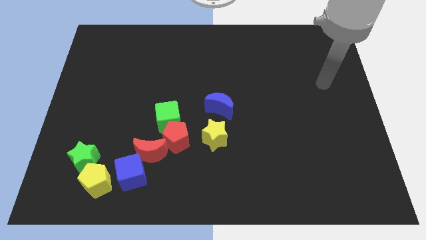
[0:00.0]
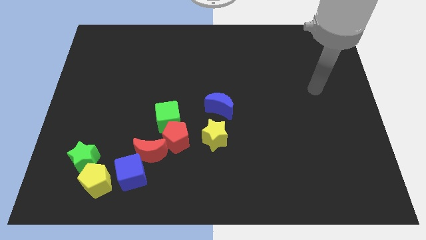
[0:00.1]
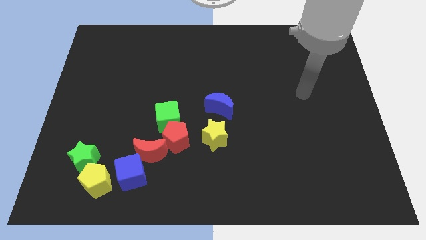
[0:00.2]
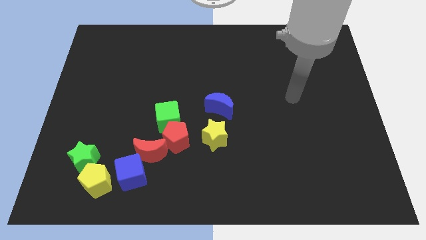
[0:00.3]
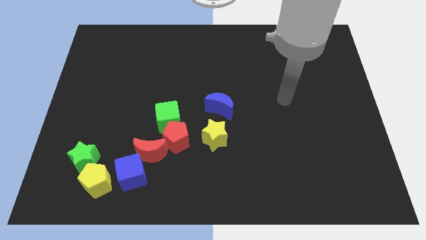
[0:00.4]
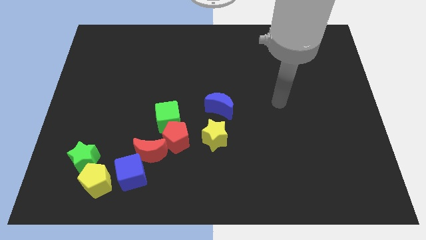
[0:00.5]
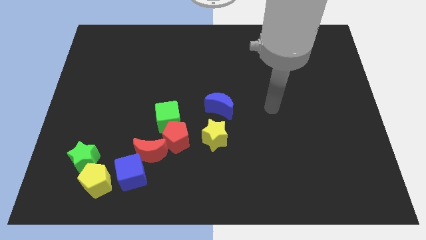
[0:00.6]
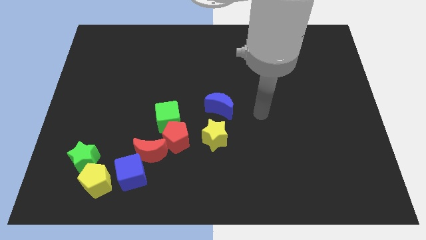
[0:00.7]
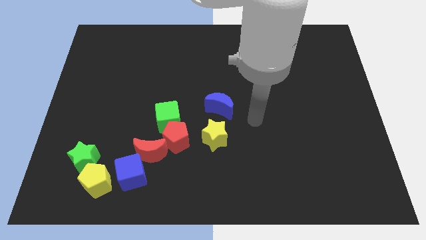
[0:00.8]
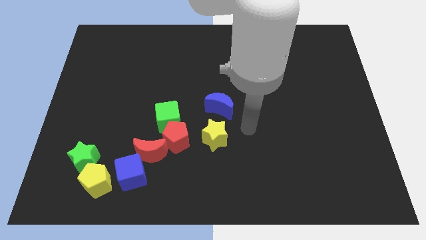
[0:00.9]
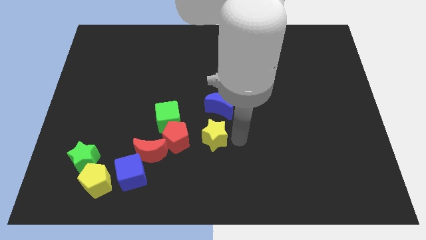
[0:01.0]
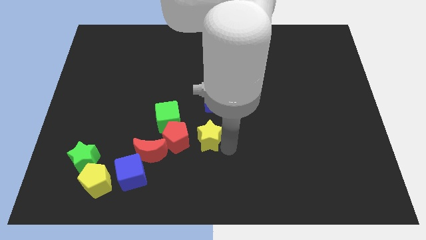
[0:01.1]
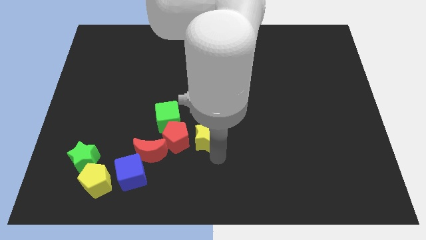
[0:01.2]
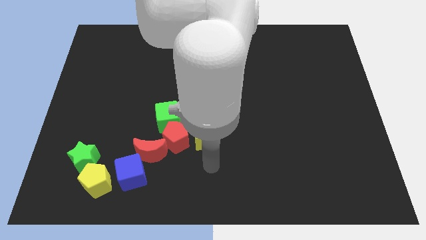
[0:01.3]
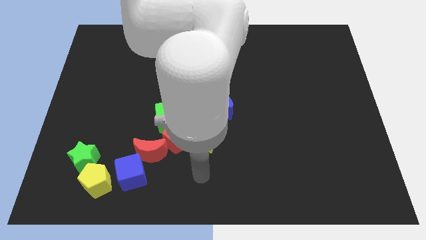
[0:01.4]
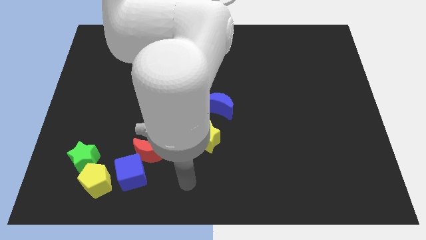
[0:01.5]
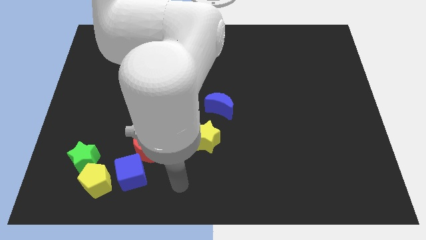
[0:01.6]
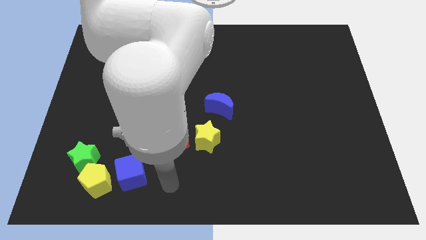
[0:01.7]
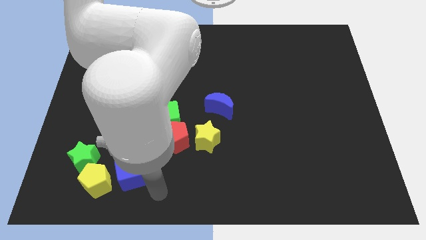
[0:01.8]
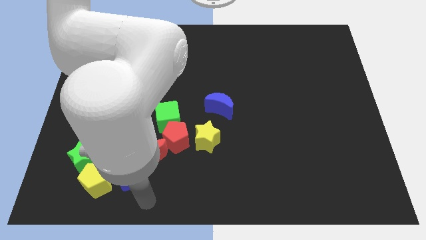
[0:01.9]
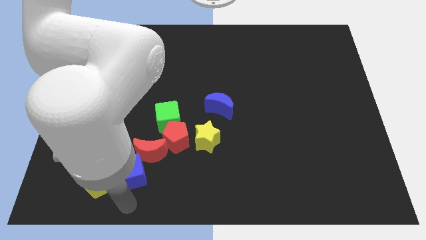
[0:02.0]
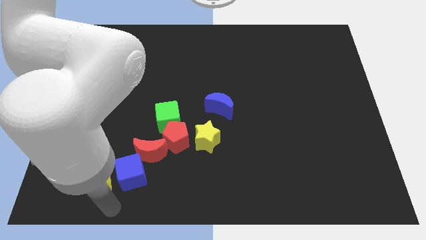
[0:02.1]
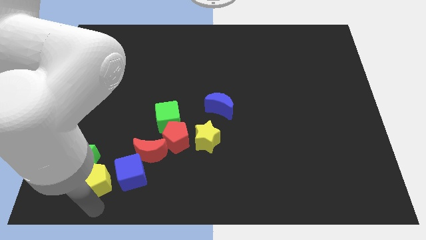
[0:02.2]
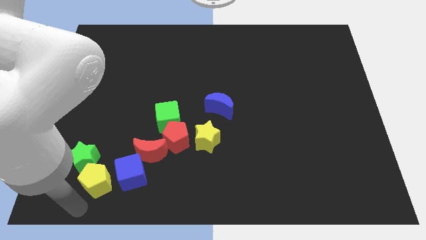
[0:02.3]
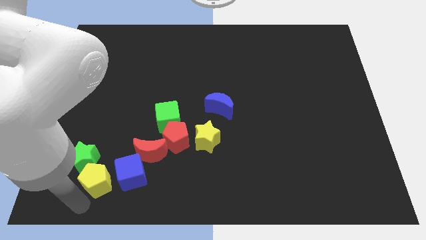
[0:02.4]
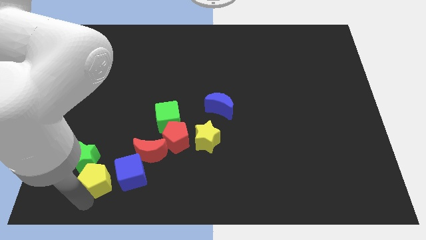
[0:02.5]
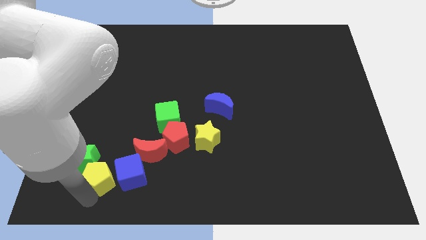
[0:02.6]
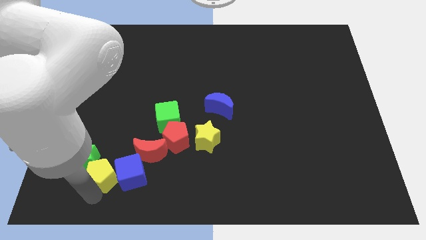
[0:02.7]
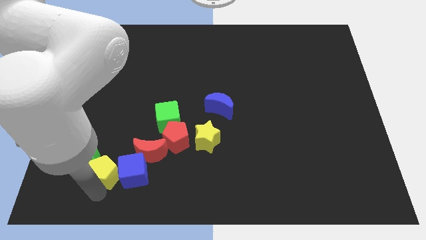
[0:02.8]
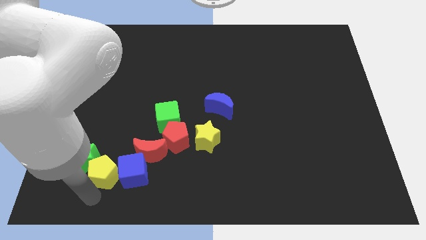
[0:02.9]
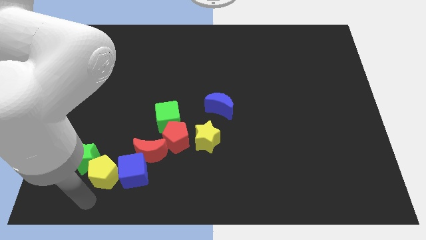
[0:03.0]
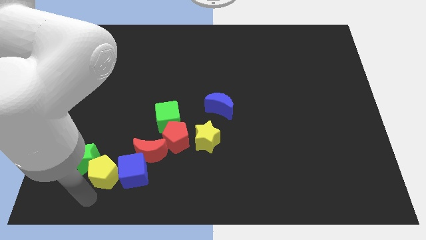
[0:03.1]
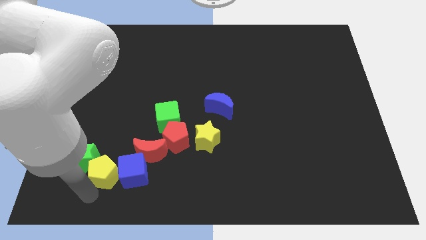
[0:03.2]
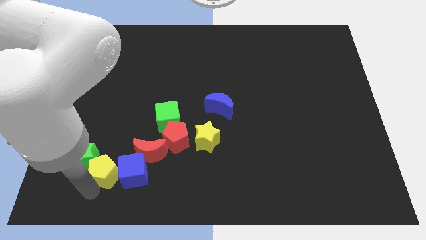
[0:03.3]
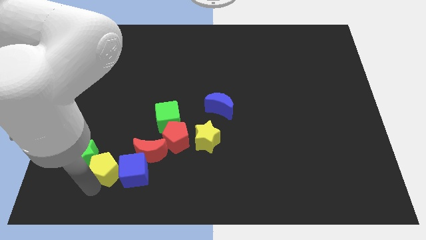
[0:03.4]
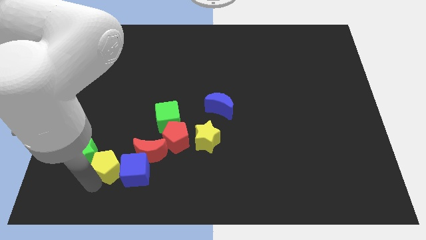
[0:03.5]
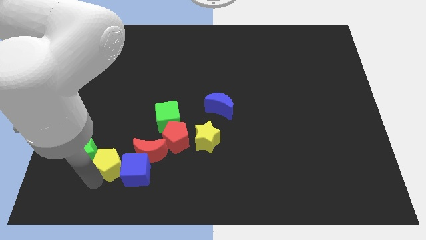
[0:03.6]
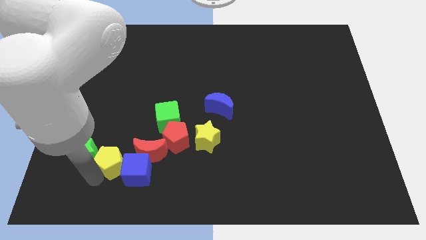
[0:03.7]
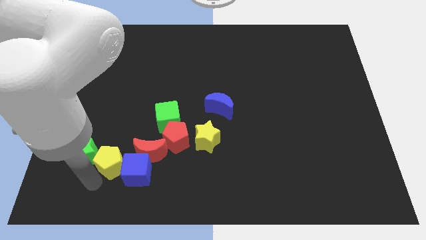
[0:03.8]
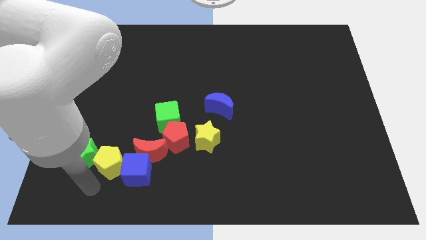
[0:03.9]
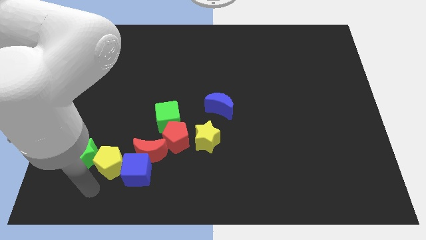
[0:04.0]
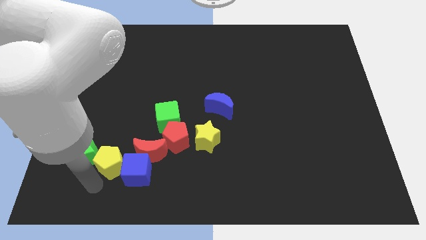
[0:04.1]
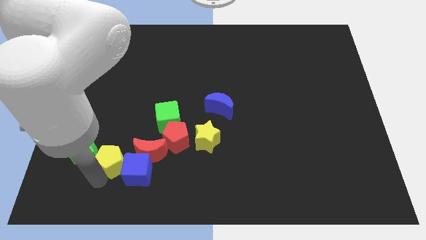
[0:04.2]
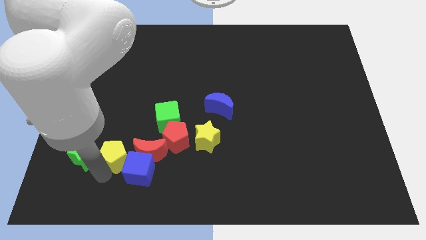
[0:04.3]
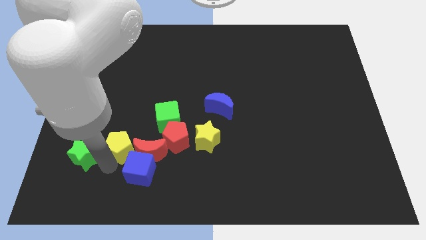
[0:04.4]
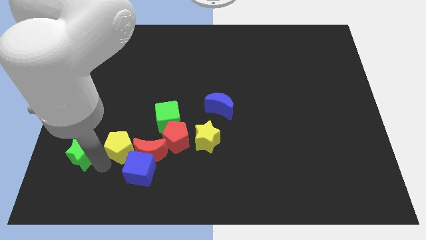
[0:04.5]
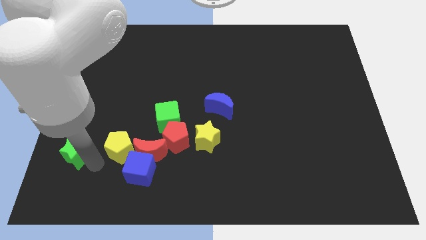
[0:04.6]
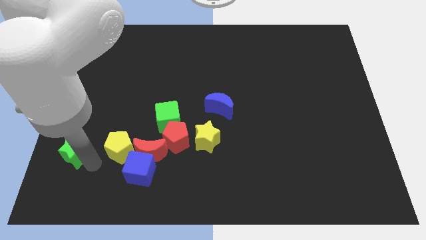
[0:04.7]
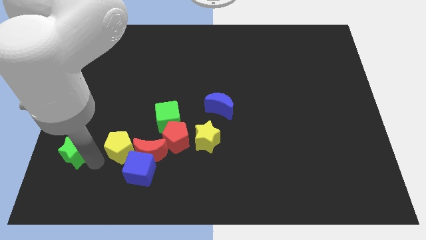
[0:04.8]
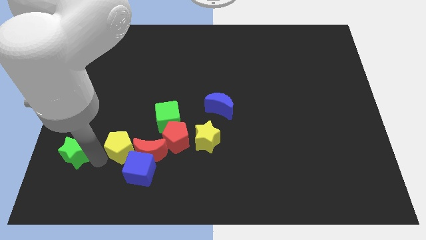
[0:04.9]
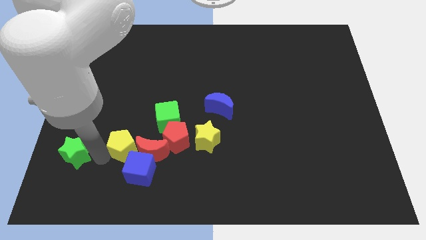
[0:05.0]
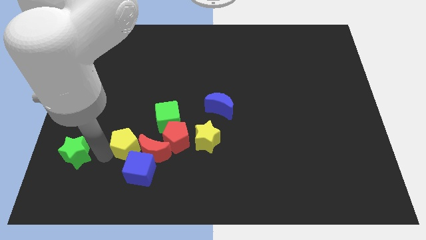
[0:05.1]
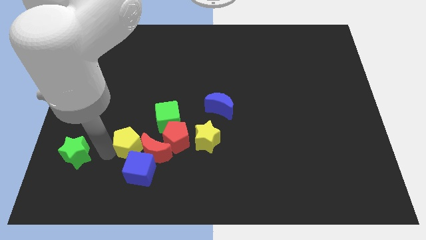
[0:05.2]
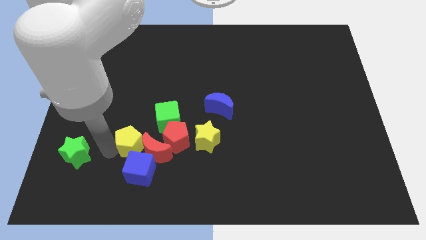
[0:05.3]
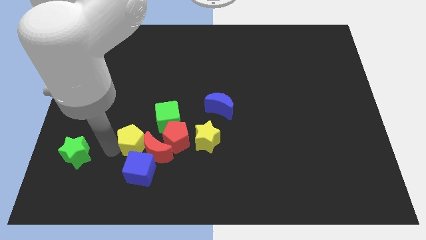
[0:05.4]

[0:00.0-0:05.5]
move the yellow pentagon to the left of the yellow star

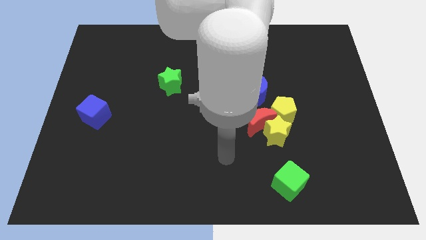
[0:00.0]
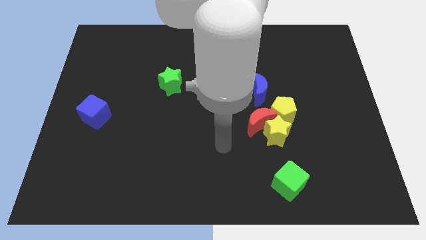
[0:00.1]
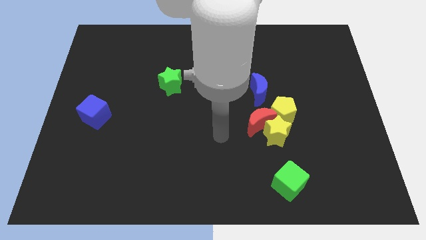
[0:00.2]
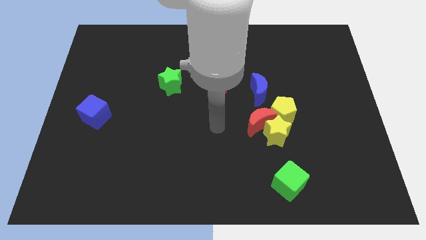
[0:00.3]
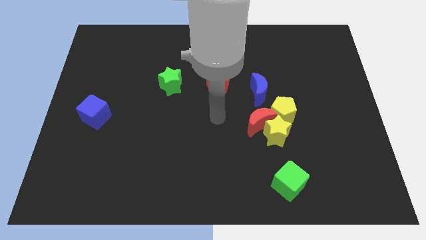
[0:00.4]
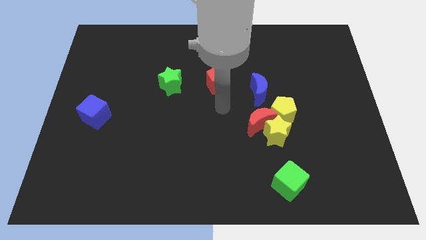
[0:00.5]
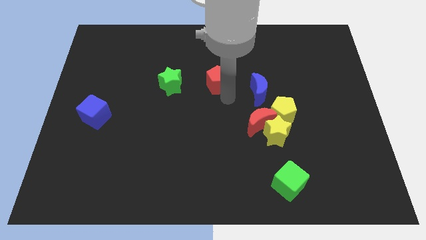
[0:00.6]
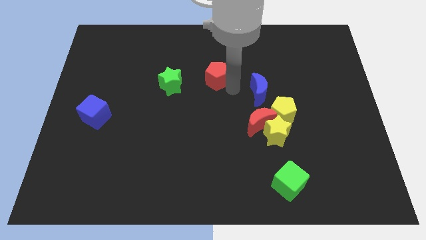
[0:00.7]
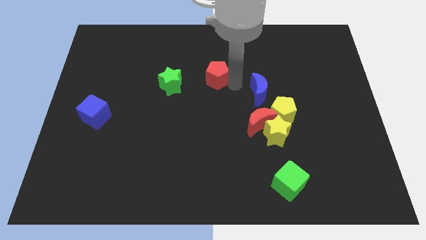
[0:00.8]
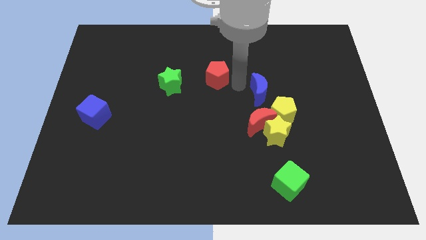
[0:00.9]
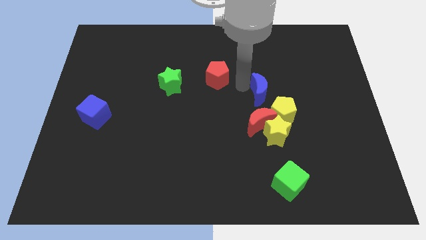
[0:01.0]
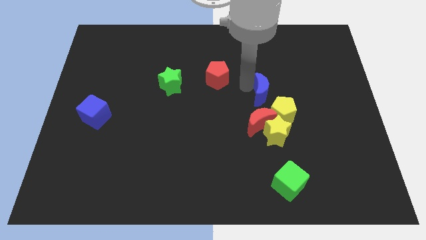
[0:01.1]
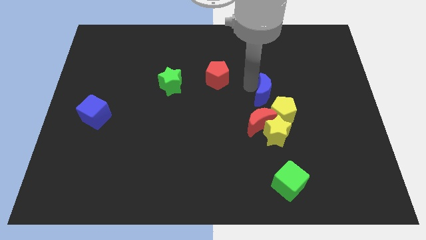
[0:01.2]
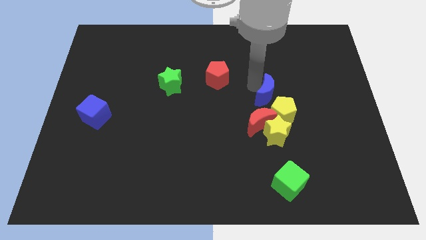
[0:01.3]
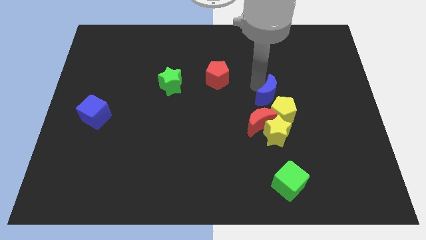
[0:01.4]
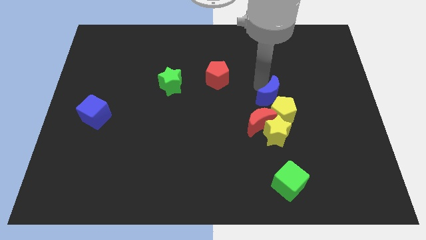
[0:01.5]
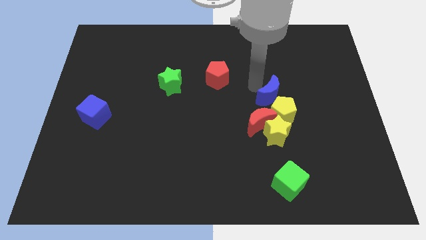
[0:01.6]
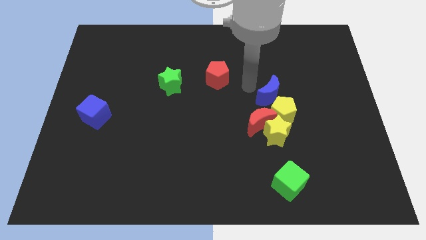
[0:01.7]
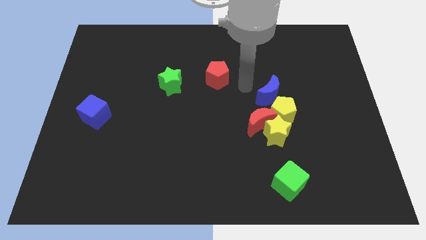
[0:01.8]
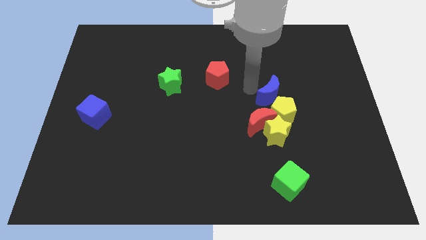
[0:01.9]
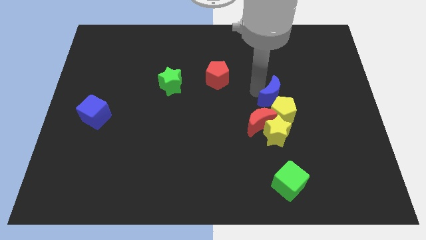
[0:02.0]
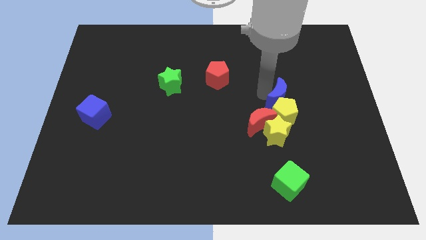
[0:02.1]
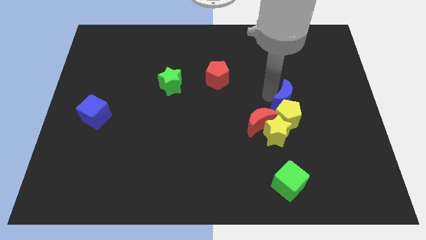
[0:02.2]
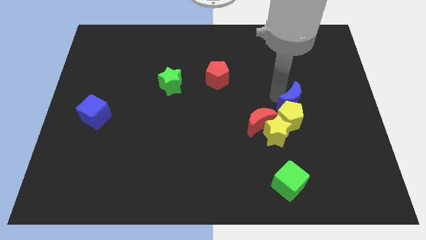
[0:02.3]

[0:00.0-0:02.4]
push the blue moon diagonally up and to the right of the yellow star
